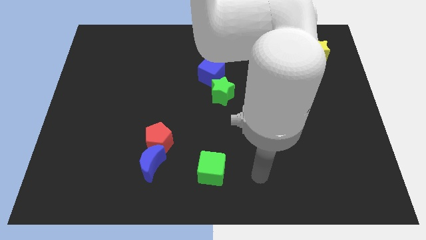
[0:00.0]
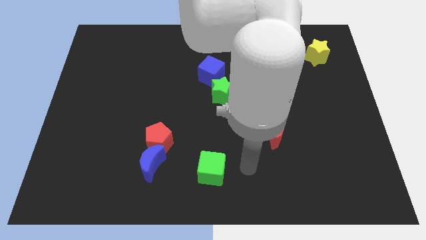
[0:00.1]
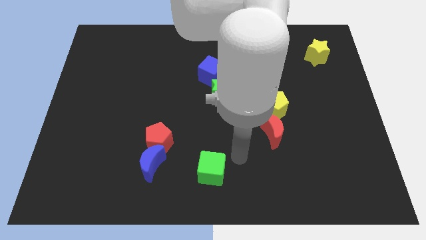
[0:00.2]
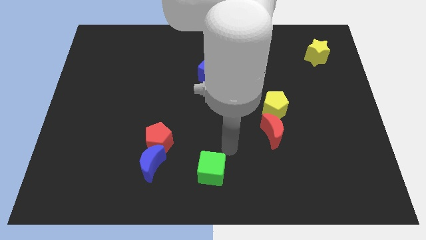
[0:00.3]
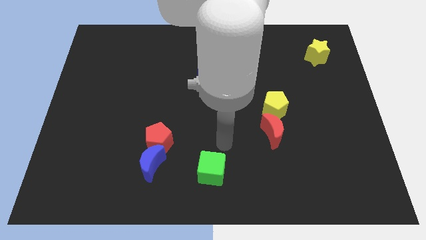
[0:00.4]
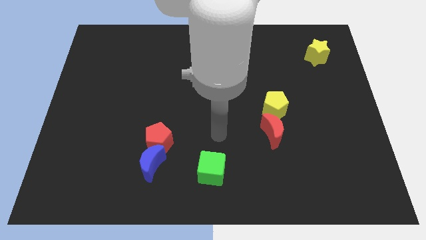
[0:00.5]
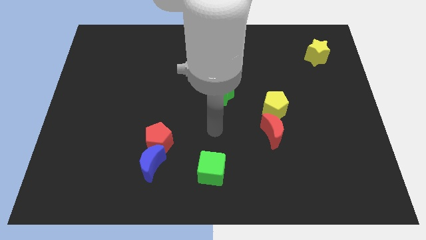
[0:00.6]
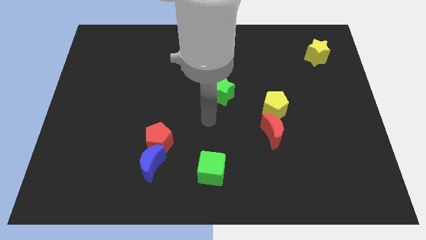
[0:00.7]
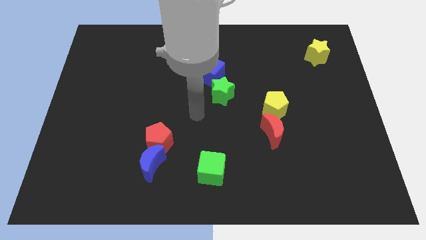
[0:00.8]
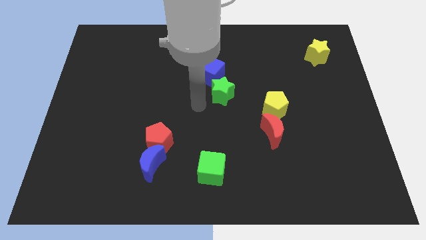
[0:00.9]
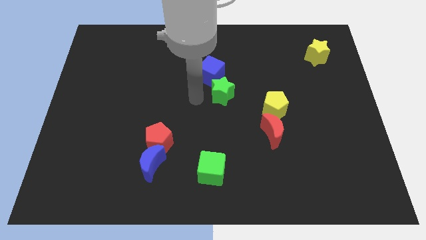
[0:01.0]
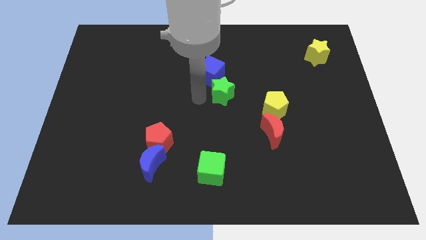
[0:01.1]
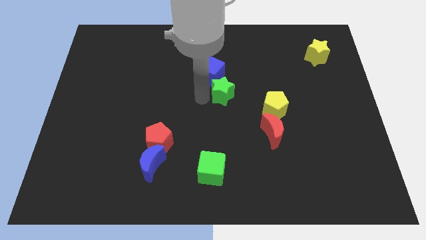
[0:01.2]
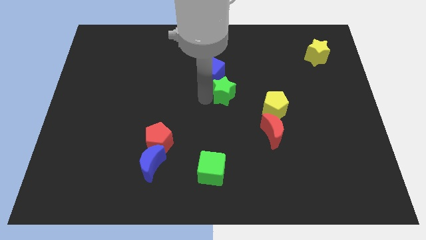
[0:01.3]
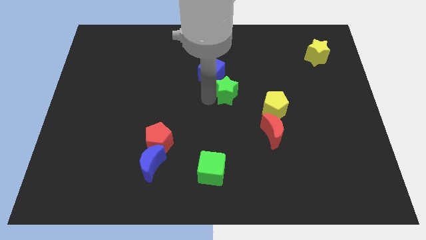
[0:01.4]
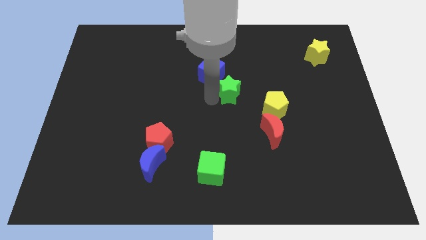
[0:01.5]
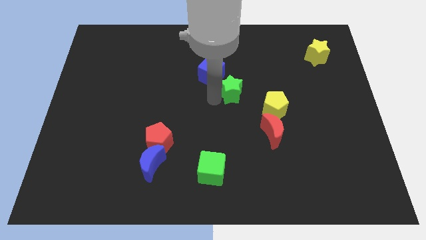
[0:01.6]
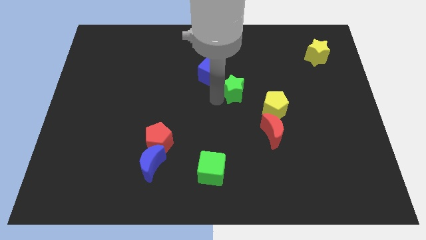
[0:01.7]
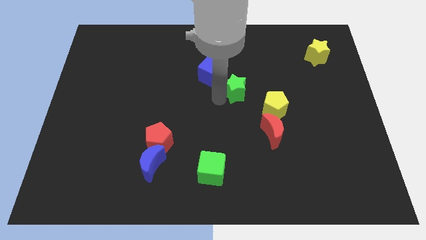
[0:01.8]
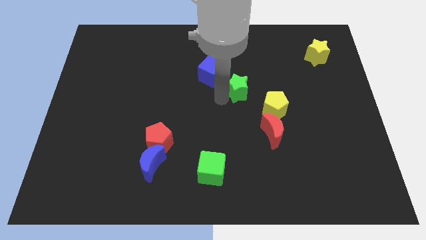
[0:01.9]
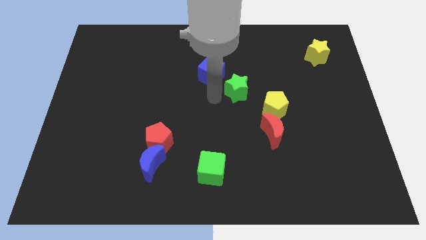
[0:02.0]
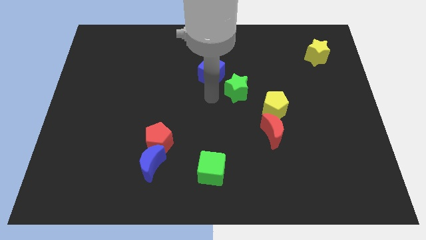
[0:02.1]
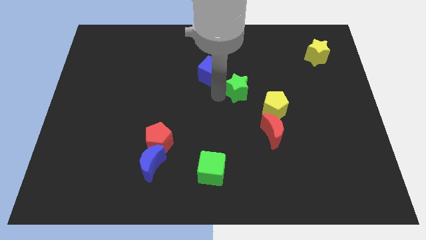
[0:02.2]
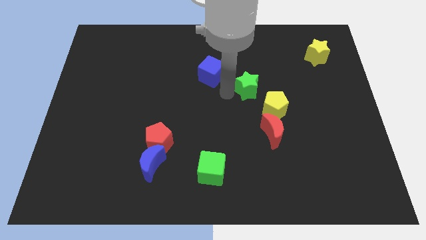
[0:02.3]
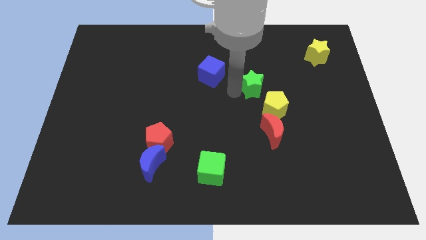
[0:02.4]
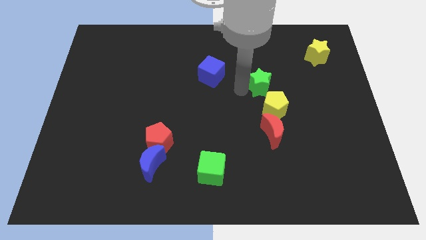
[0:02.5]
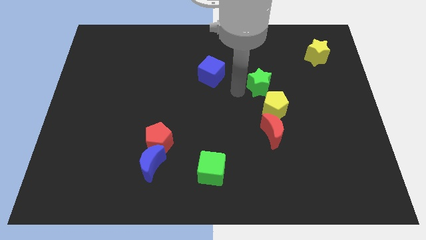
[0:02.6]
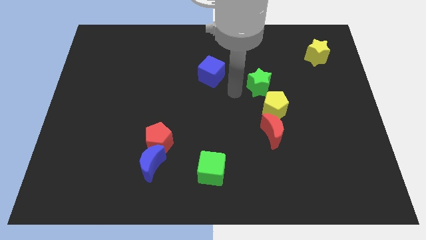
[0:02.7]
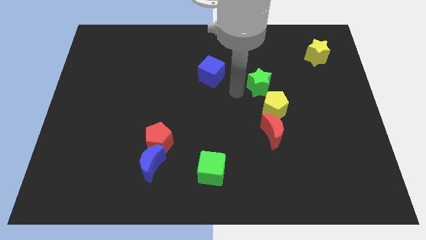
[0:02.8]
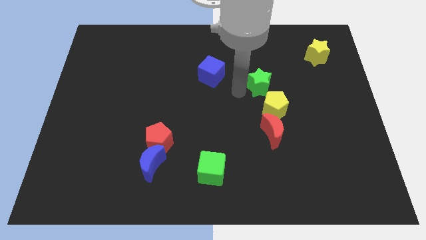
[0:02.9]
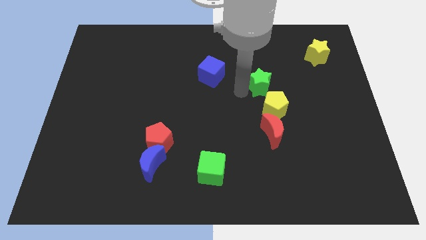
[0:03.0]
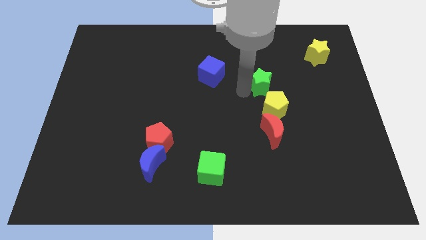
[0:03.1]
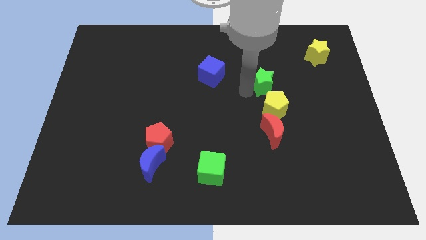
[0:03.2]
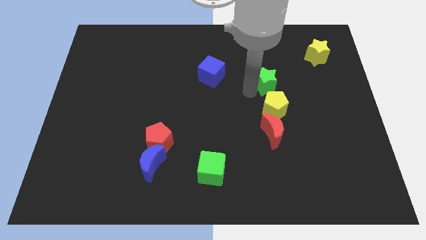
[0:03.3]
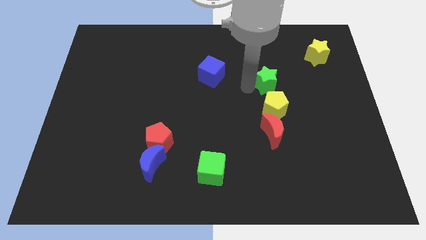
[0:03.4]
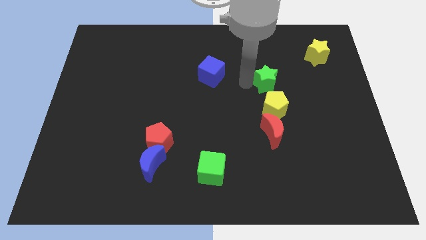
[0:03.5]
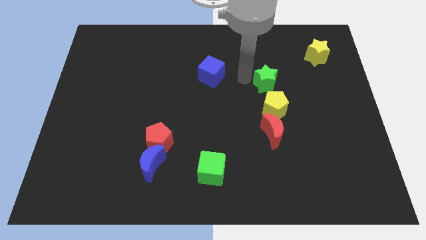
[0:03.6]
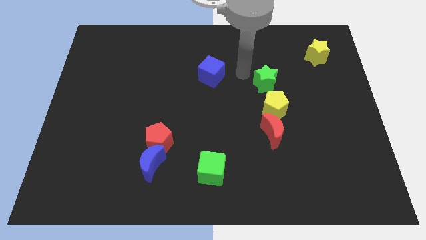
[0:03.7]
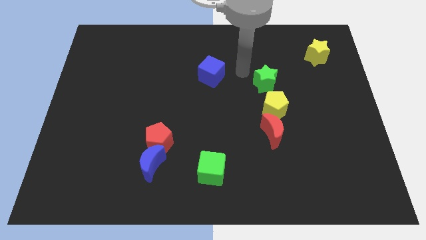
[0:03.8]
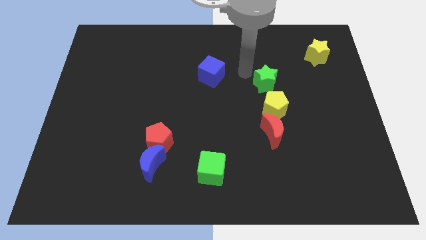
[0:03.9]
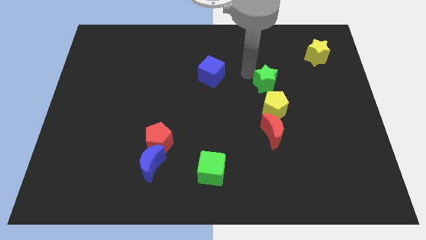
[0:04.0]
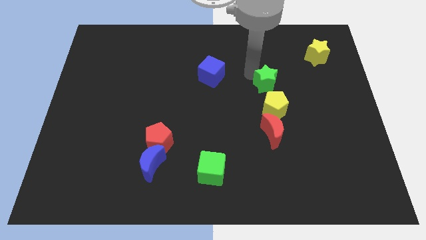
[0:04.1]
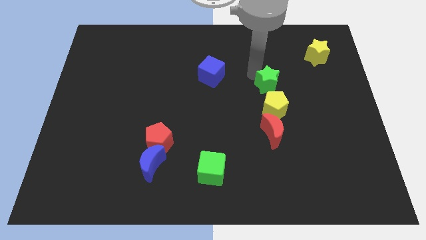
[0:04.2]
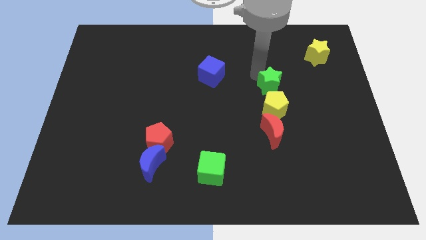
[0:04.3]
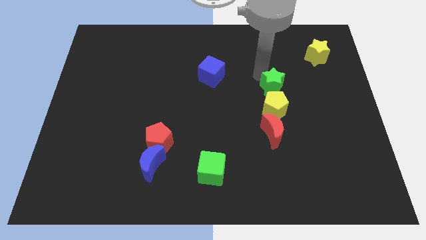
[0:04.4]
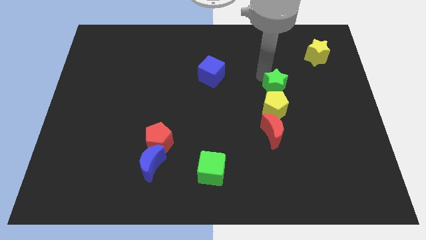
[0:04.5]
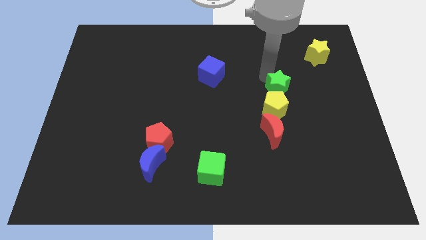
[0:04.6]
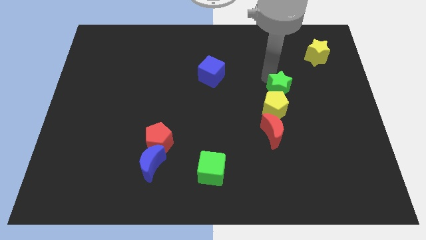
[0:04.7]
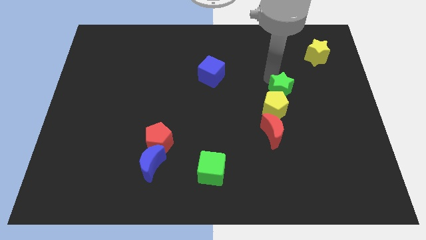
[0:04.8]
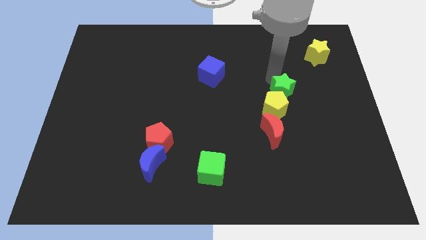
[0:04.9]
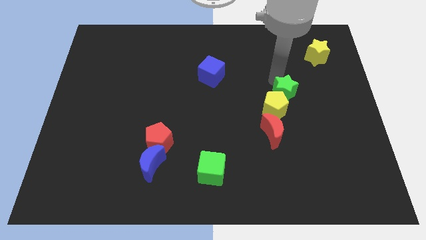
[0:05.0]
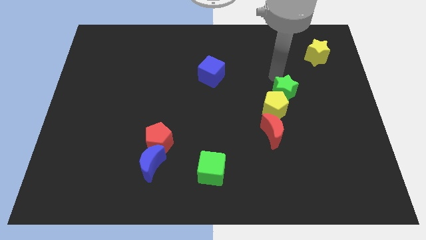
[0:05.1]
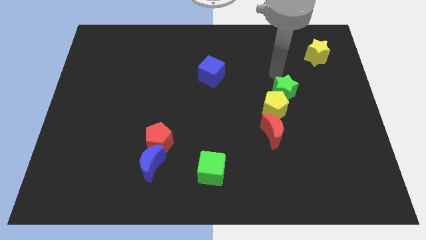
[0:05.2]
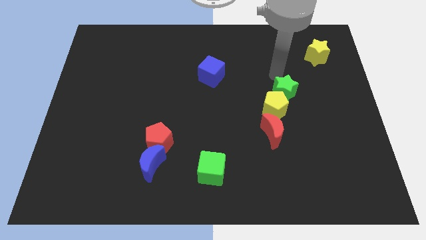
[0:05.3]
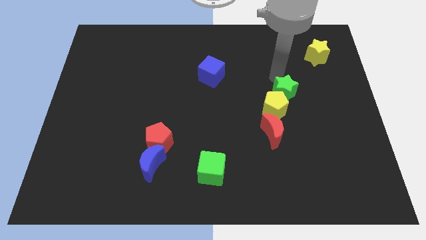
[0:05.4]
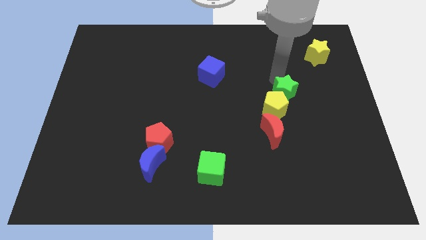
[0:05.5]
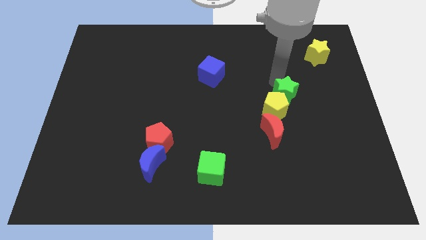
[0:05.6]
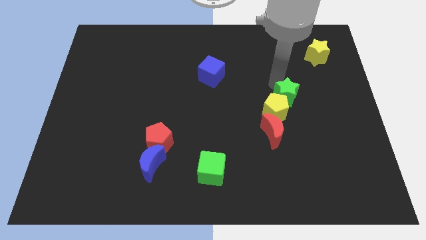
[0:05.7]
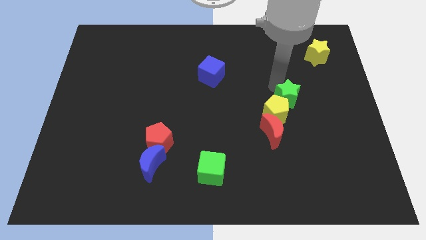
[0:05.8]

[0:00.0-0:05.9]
move the green star diagonally up and to the right of the red moon

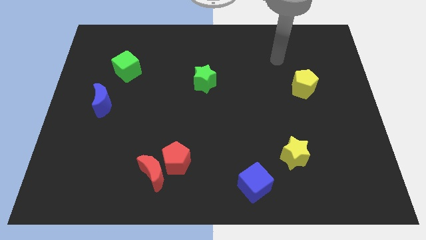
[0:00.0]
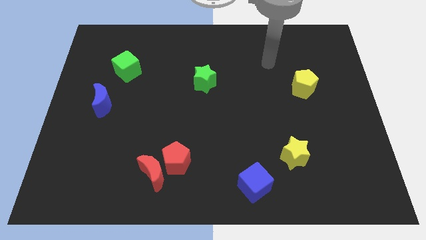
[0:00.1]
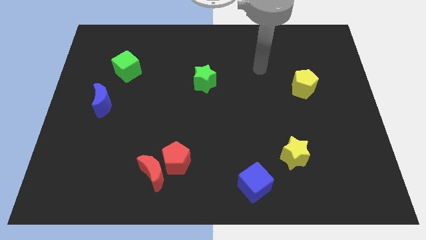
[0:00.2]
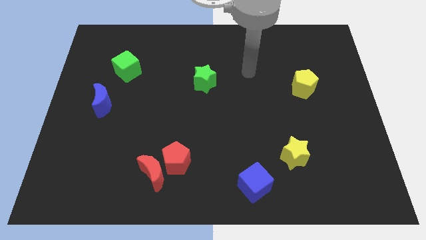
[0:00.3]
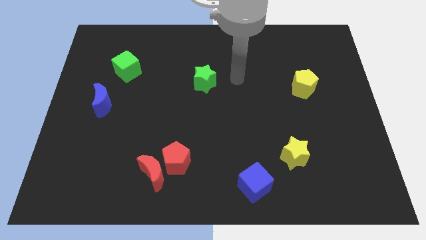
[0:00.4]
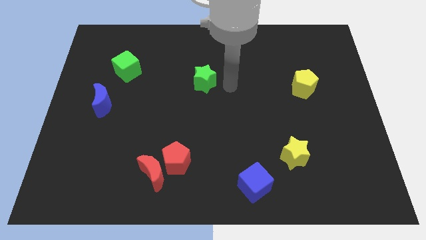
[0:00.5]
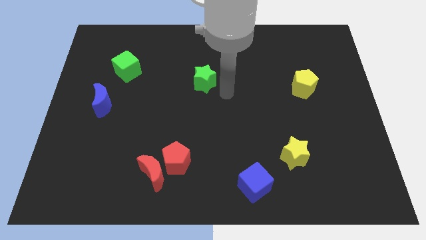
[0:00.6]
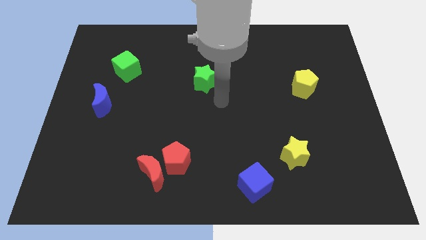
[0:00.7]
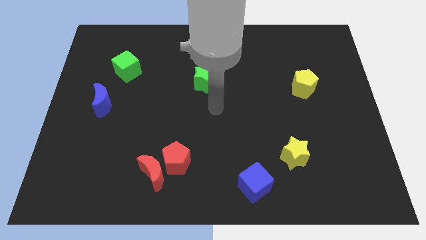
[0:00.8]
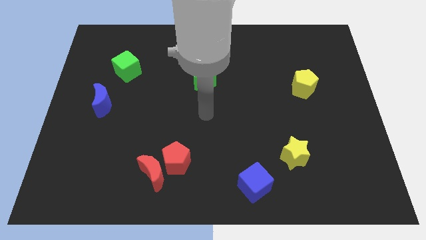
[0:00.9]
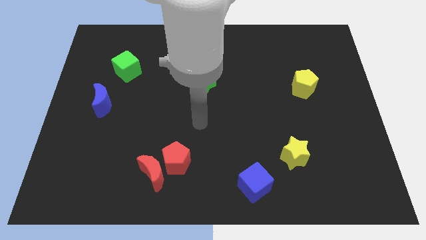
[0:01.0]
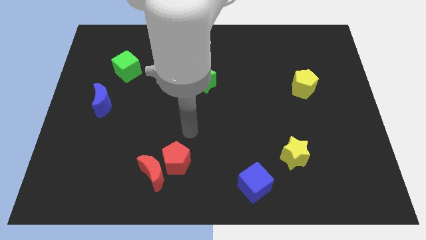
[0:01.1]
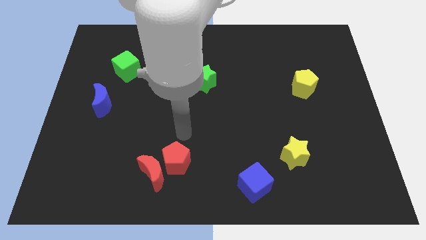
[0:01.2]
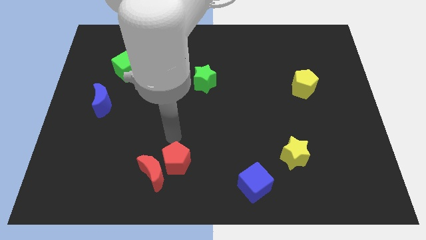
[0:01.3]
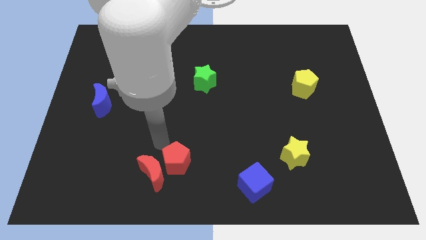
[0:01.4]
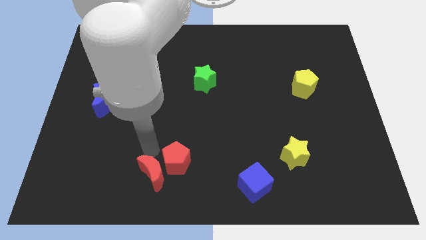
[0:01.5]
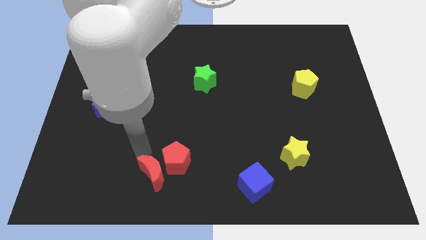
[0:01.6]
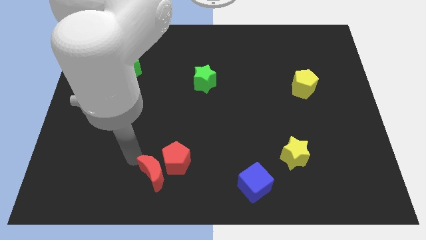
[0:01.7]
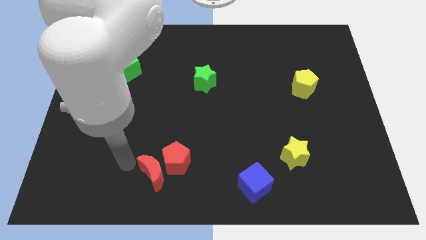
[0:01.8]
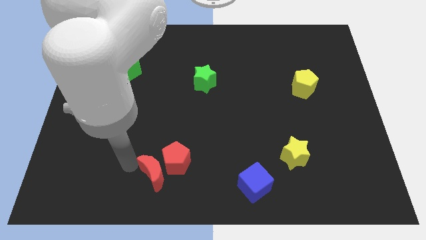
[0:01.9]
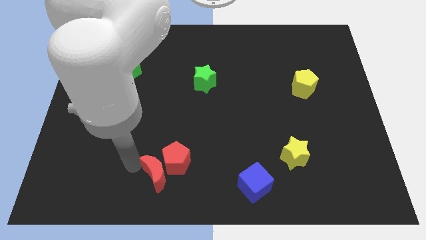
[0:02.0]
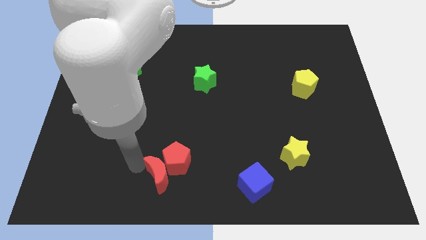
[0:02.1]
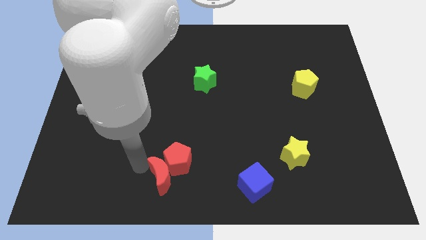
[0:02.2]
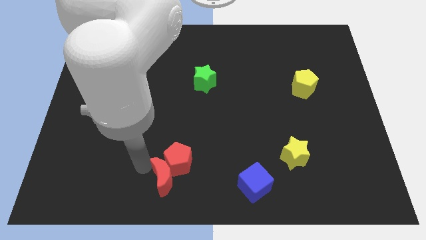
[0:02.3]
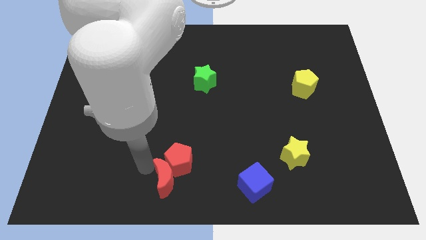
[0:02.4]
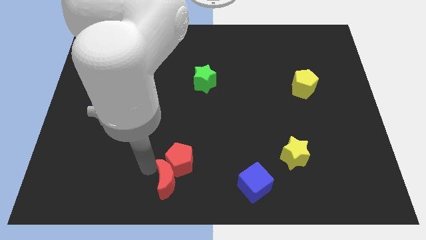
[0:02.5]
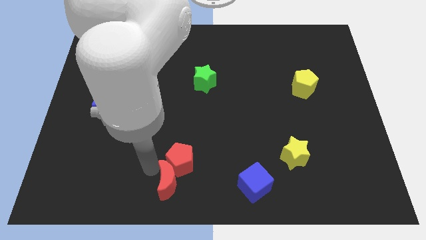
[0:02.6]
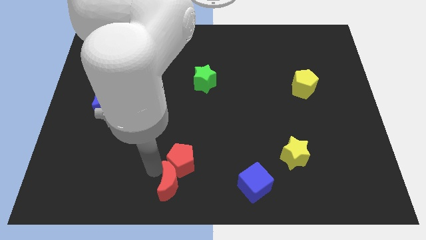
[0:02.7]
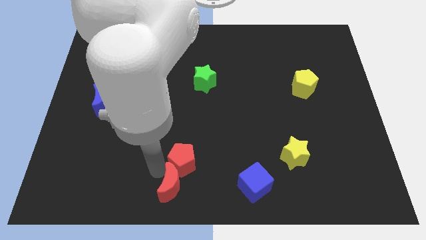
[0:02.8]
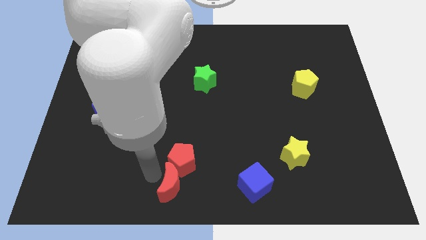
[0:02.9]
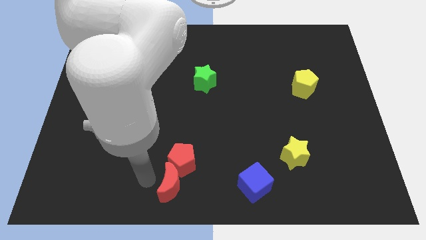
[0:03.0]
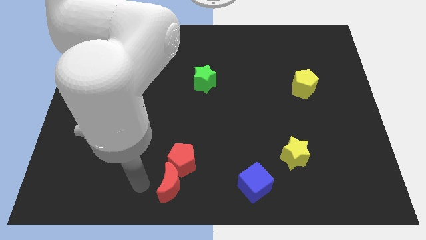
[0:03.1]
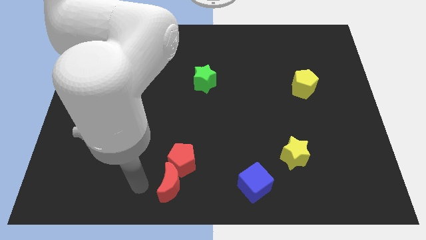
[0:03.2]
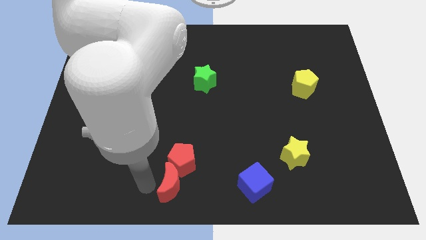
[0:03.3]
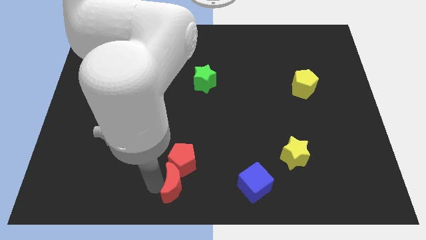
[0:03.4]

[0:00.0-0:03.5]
slide the red moon to the left of the blue cube
